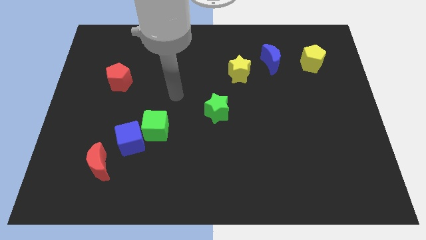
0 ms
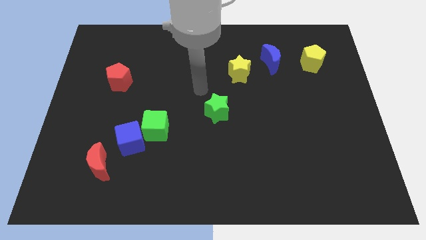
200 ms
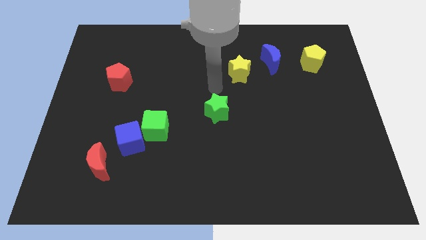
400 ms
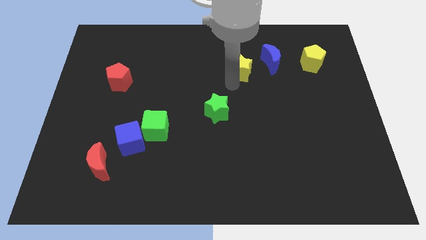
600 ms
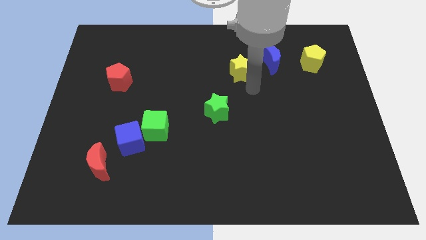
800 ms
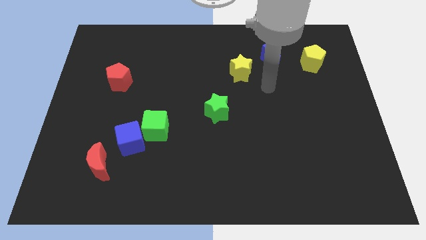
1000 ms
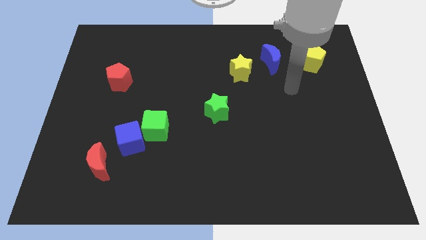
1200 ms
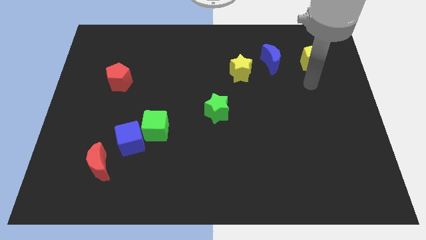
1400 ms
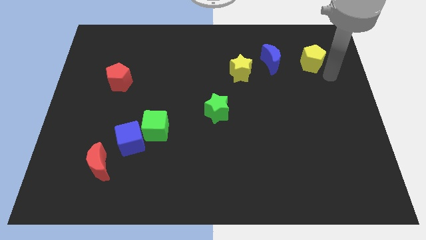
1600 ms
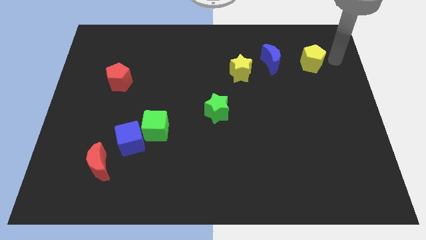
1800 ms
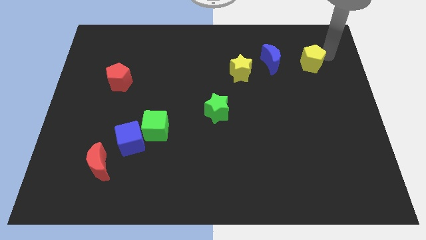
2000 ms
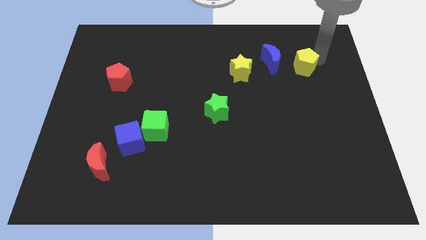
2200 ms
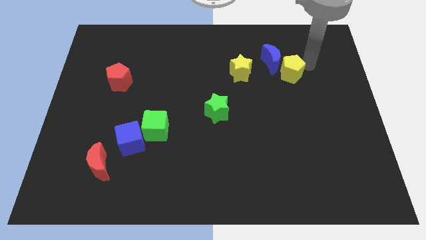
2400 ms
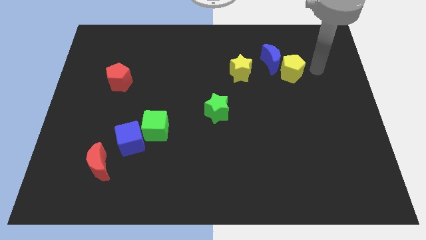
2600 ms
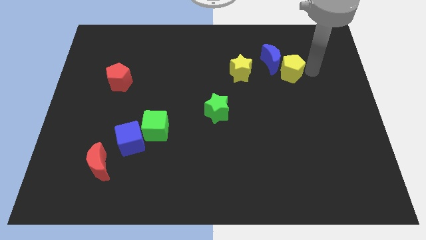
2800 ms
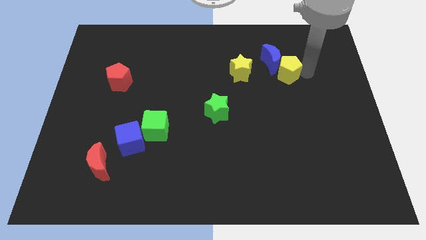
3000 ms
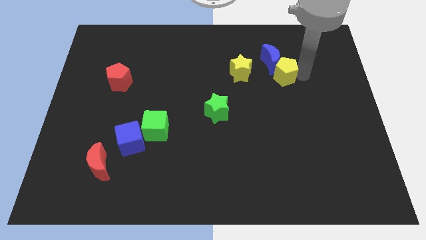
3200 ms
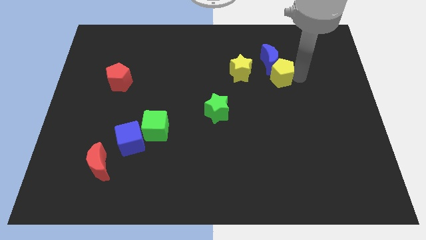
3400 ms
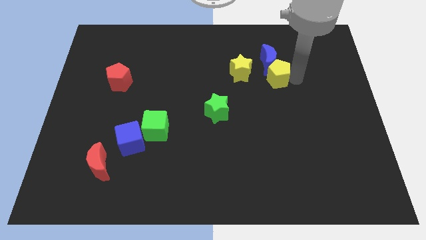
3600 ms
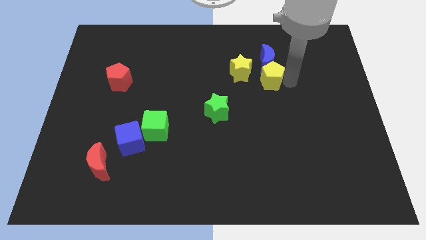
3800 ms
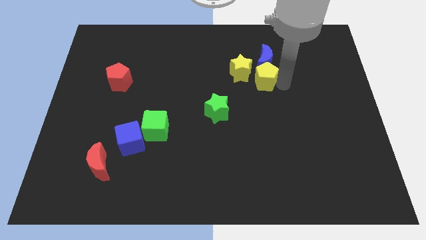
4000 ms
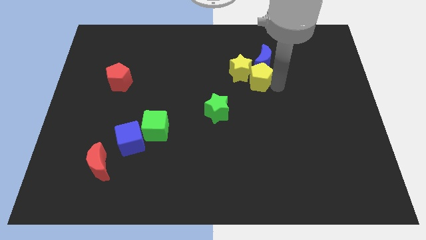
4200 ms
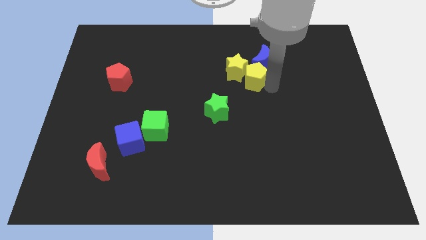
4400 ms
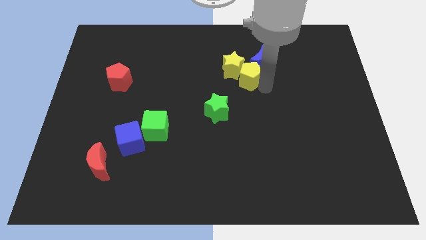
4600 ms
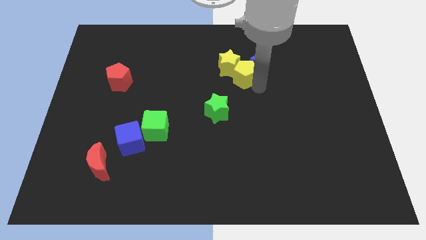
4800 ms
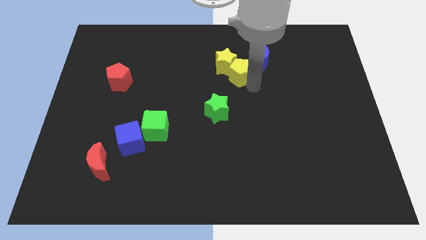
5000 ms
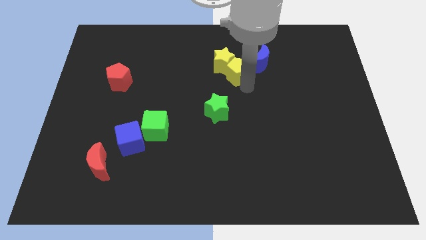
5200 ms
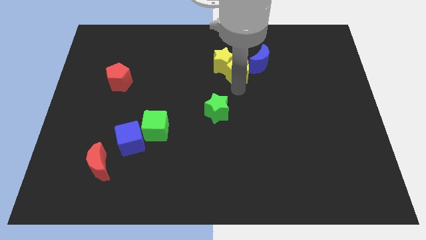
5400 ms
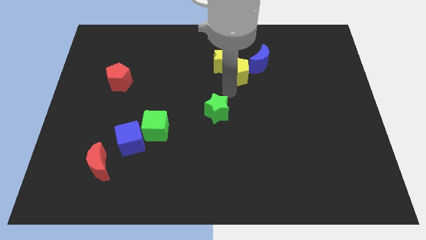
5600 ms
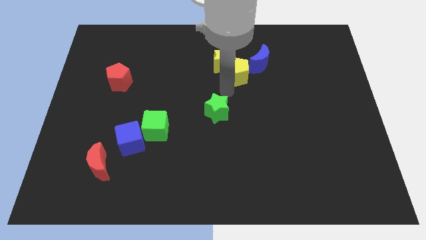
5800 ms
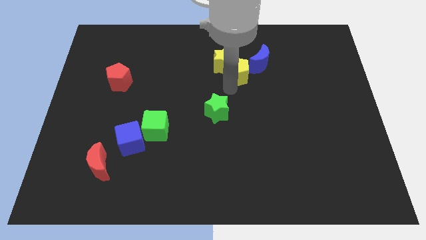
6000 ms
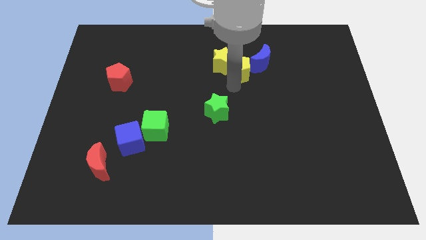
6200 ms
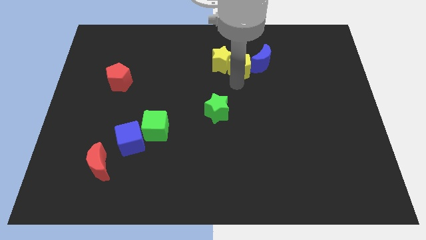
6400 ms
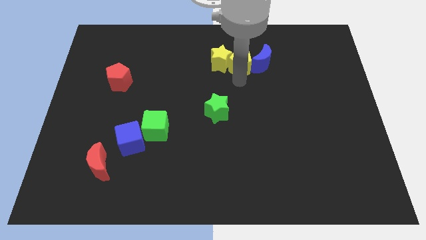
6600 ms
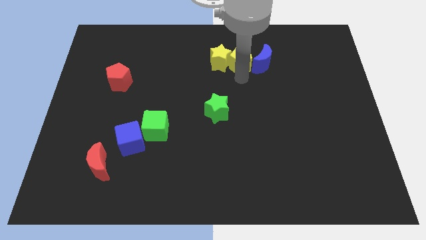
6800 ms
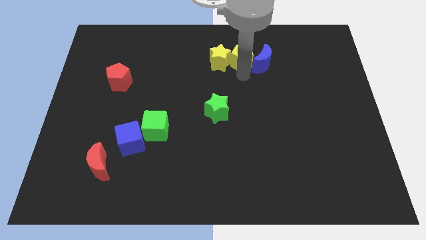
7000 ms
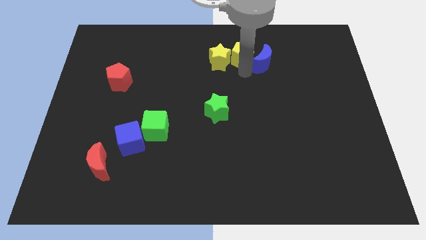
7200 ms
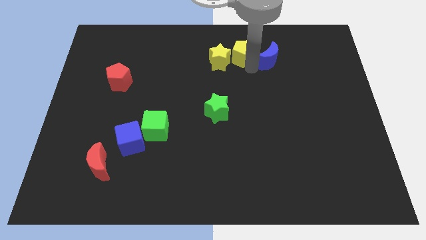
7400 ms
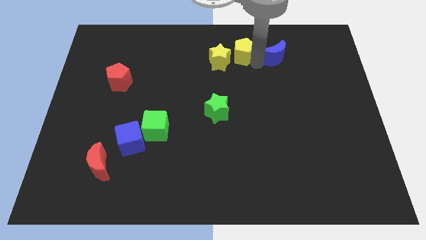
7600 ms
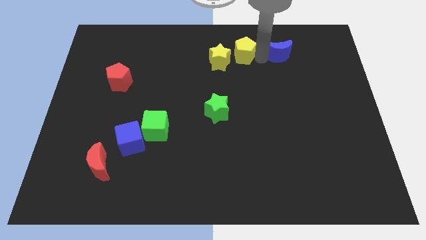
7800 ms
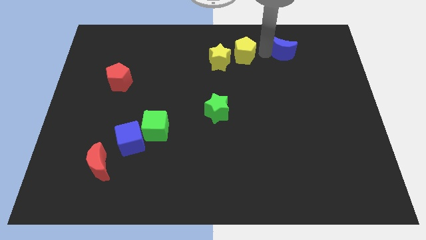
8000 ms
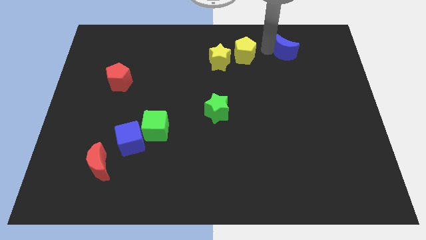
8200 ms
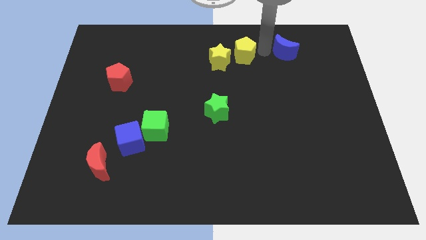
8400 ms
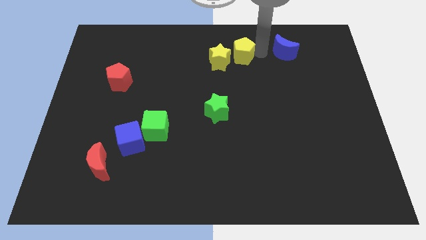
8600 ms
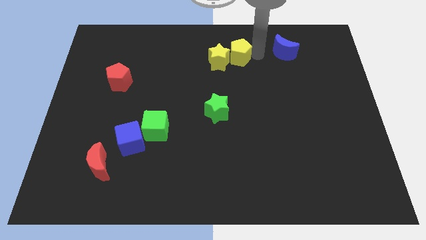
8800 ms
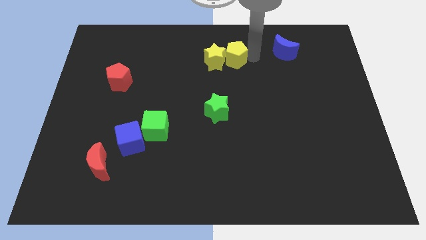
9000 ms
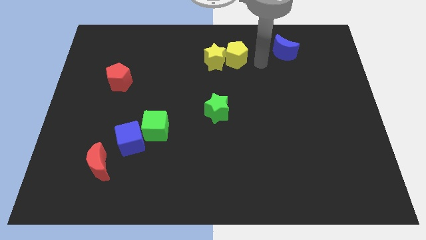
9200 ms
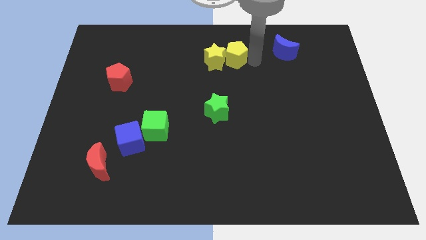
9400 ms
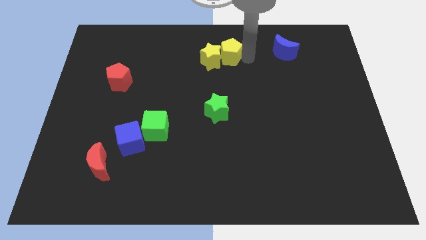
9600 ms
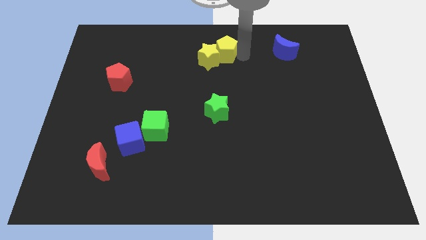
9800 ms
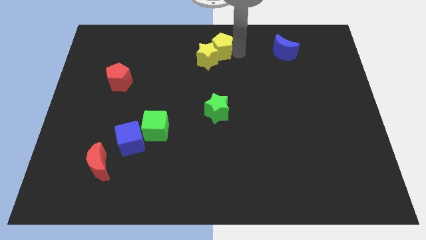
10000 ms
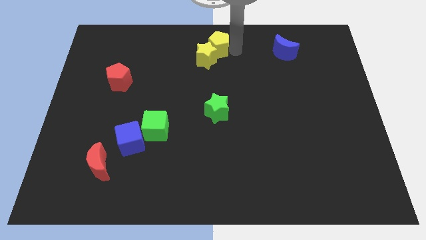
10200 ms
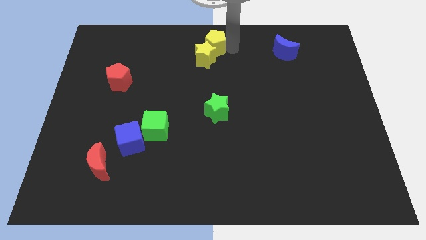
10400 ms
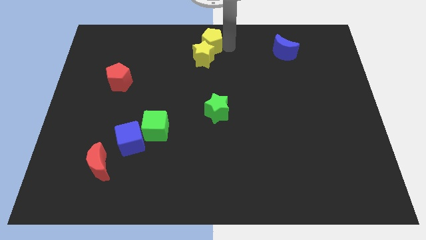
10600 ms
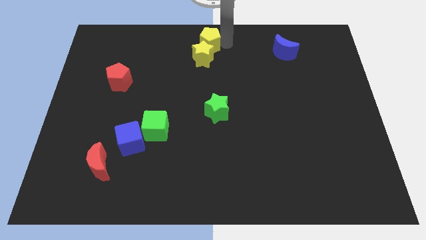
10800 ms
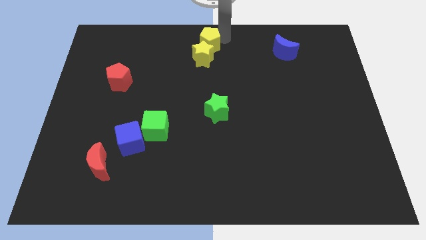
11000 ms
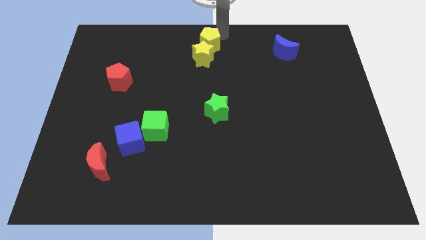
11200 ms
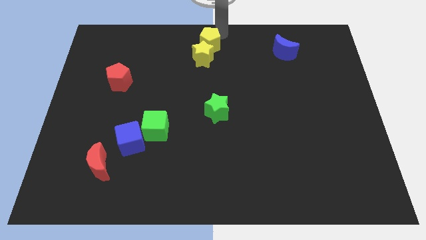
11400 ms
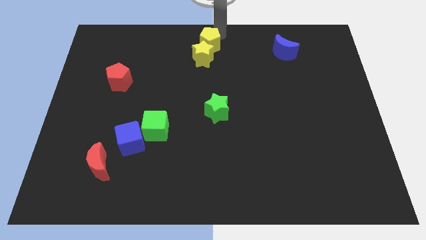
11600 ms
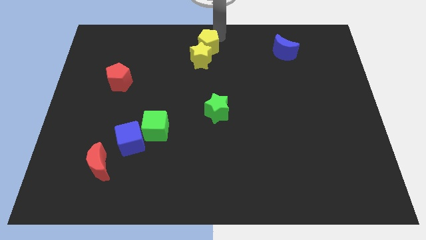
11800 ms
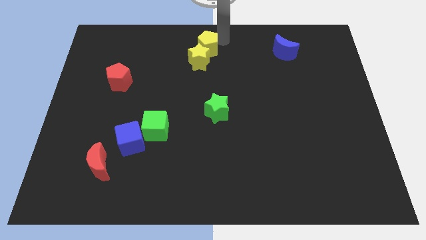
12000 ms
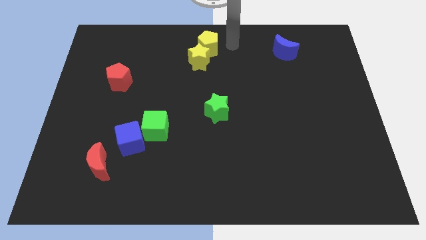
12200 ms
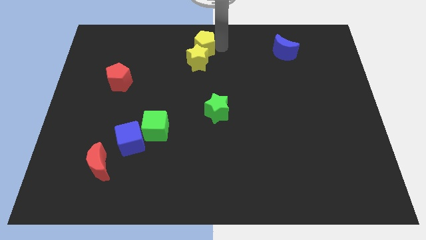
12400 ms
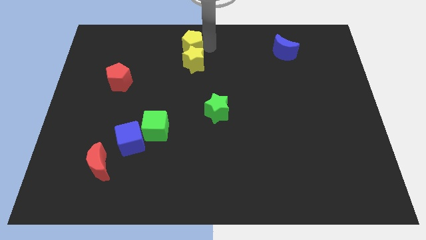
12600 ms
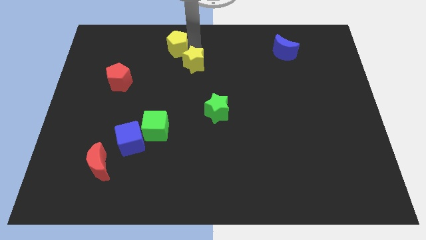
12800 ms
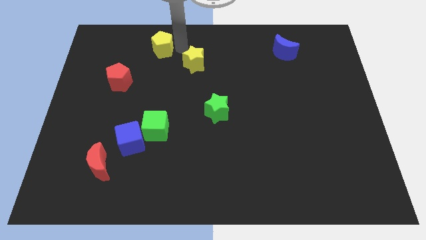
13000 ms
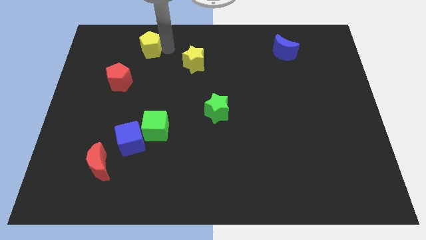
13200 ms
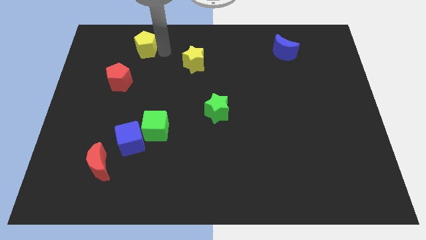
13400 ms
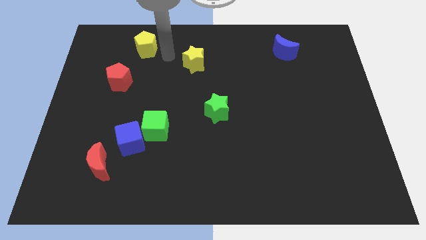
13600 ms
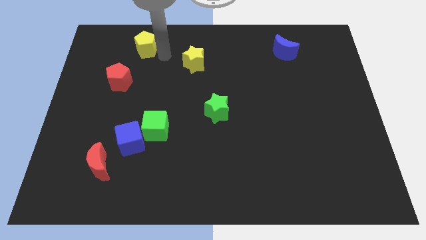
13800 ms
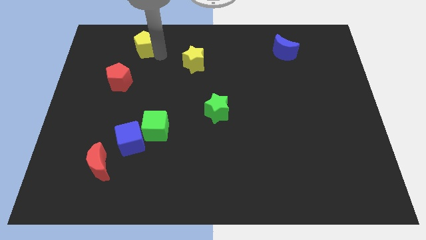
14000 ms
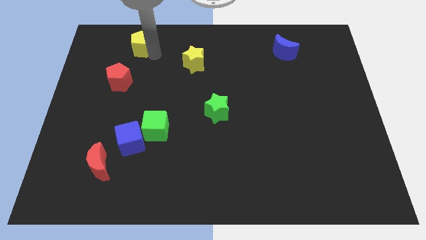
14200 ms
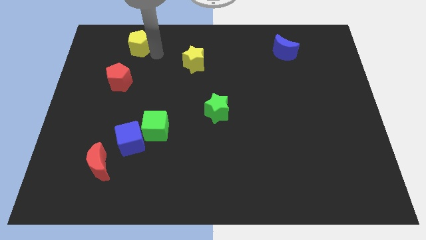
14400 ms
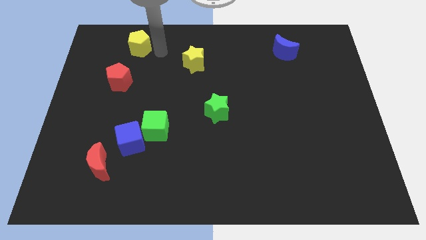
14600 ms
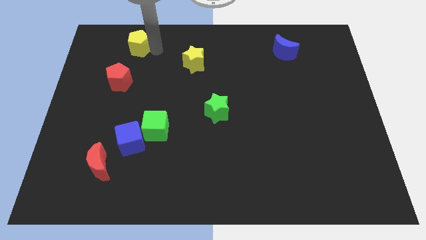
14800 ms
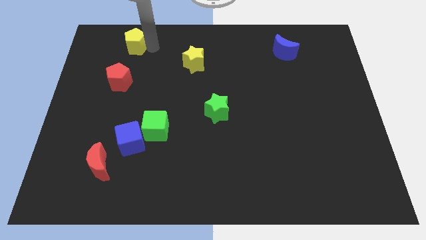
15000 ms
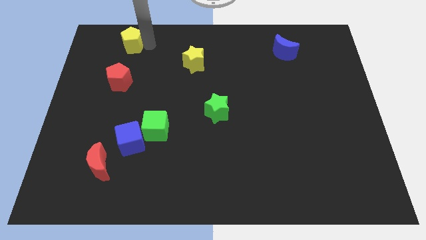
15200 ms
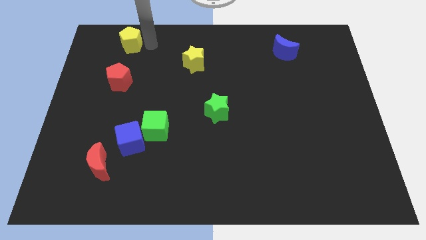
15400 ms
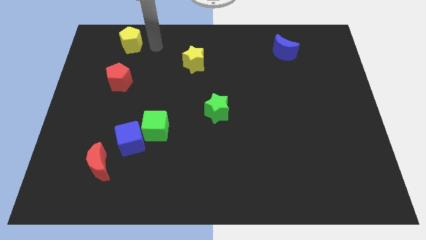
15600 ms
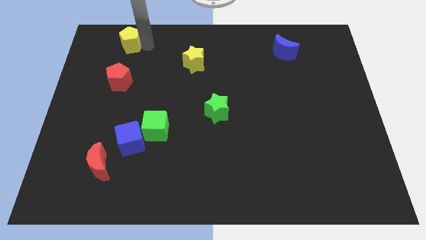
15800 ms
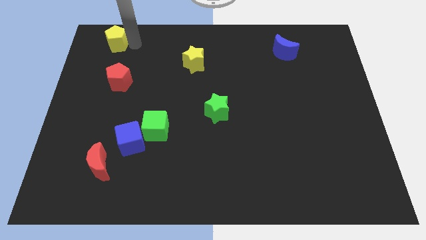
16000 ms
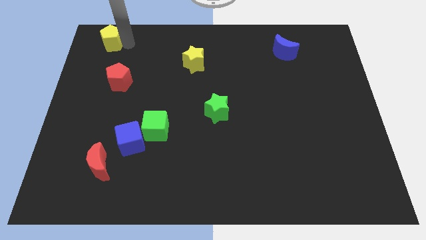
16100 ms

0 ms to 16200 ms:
move the yellow pentagon to the top left corner
